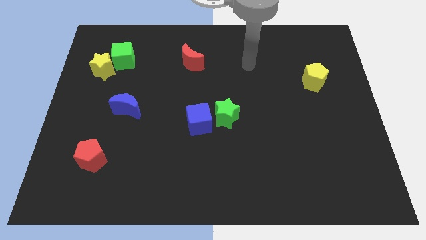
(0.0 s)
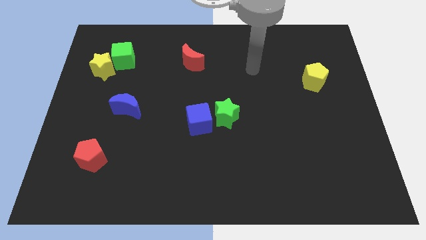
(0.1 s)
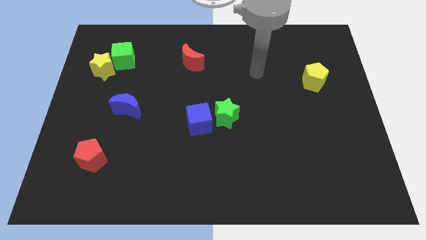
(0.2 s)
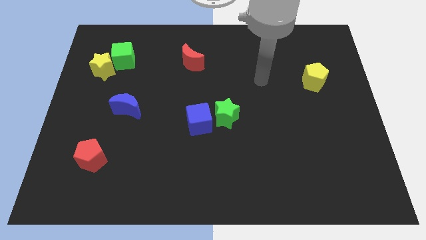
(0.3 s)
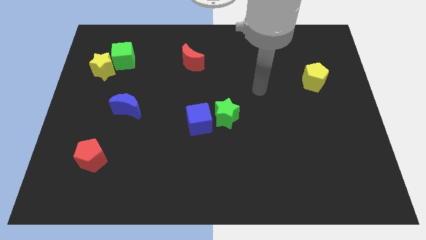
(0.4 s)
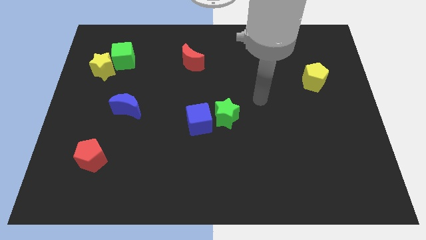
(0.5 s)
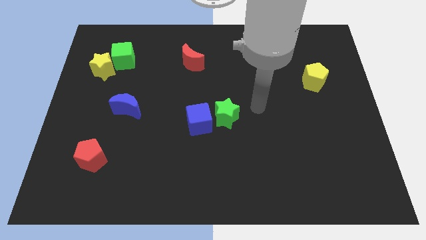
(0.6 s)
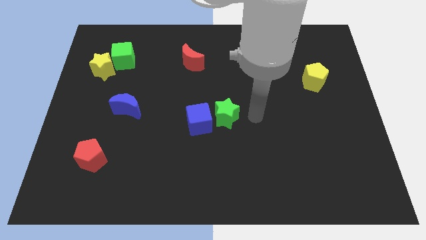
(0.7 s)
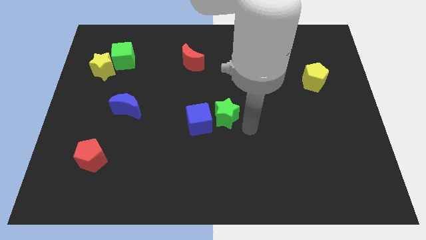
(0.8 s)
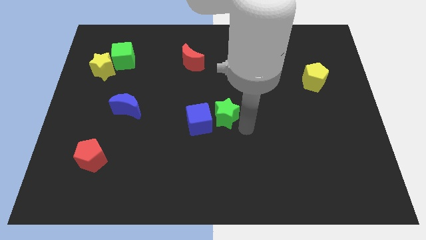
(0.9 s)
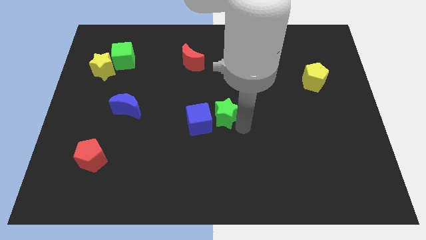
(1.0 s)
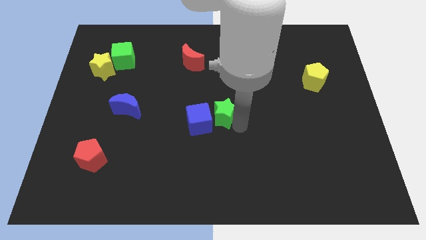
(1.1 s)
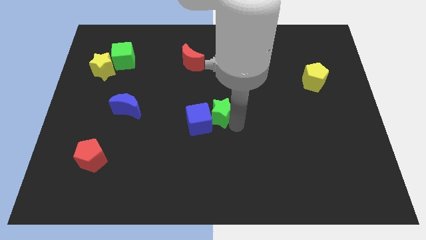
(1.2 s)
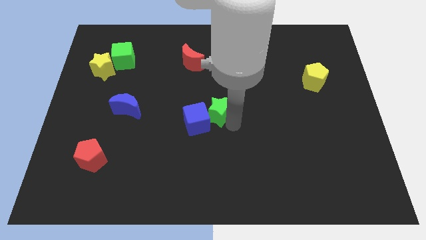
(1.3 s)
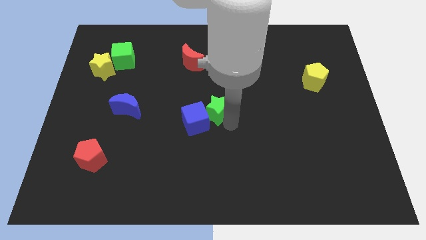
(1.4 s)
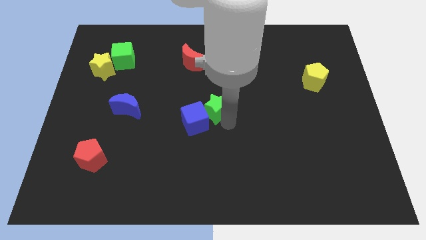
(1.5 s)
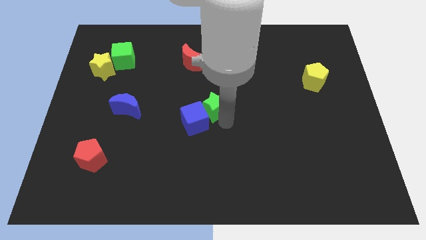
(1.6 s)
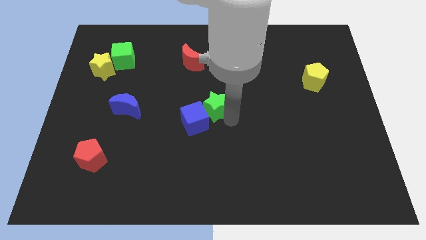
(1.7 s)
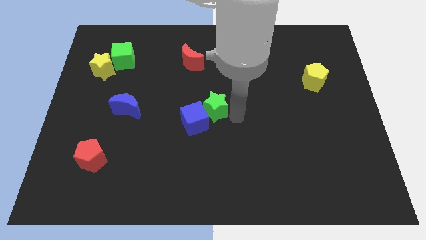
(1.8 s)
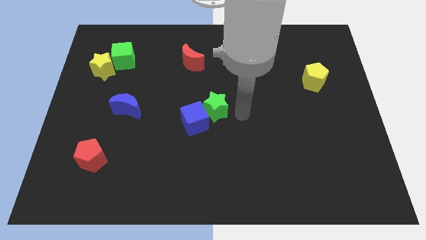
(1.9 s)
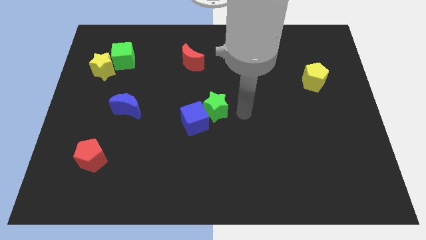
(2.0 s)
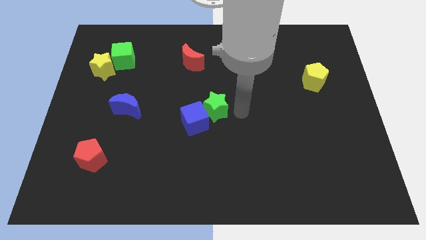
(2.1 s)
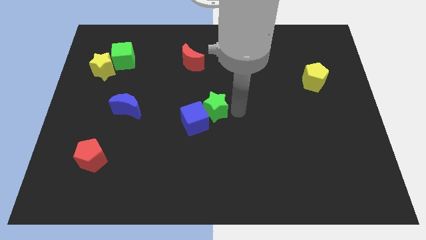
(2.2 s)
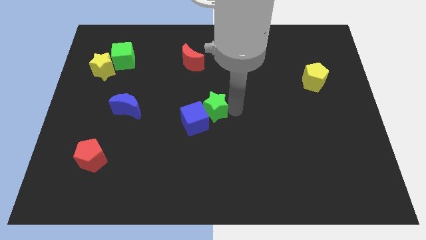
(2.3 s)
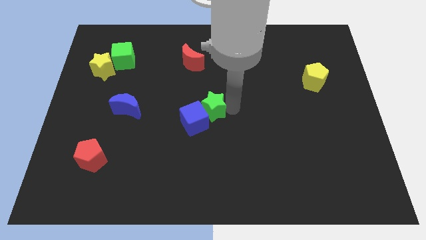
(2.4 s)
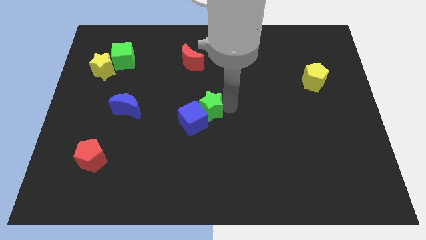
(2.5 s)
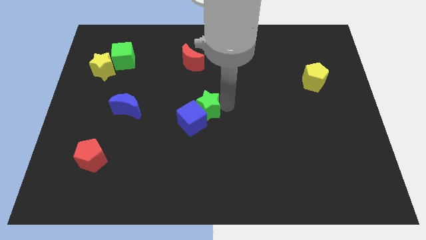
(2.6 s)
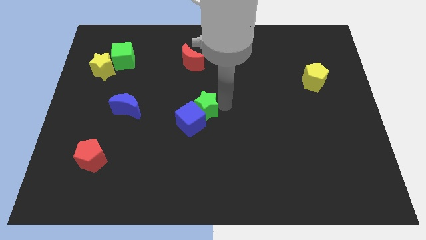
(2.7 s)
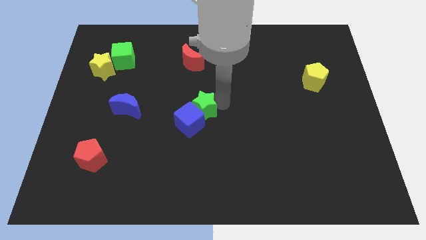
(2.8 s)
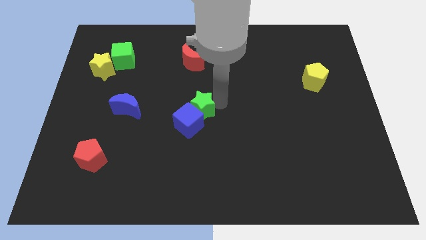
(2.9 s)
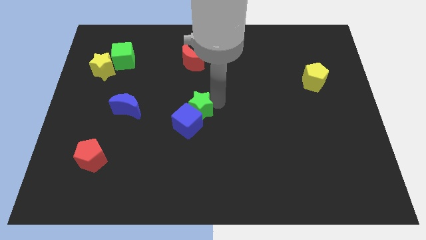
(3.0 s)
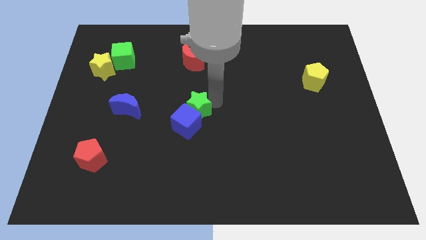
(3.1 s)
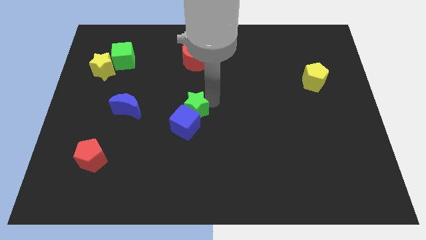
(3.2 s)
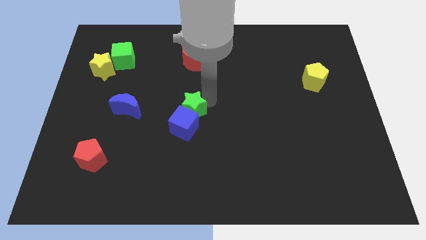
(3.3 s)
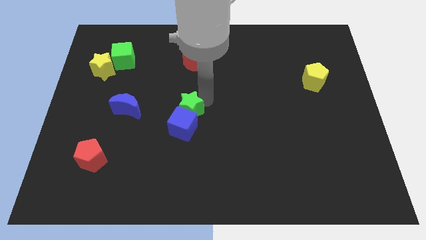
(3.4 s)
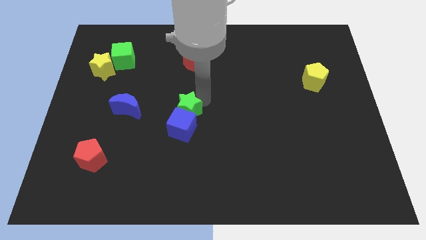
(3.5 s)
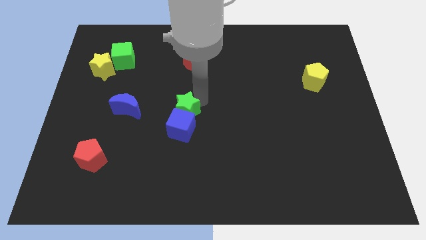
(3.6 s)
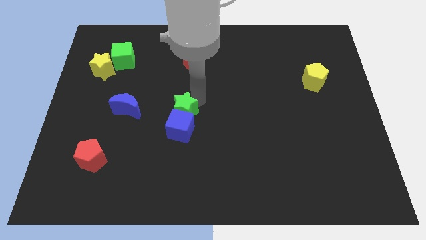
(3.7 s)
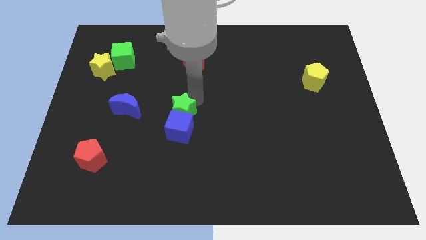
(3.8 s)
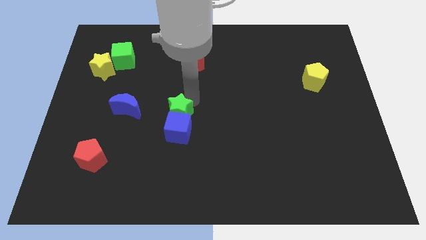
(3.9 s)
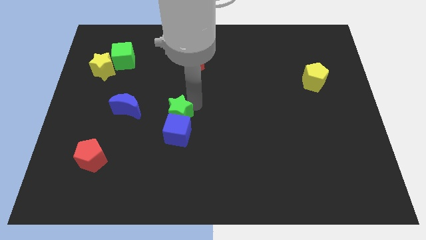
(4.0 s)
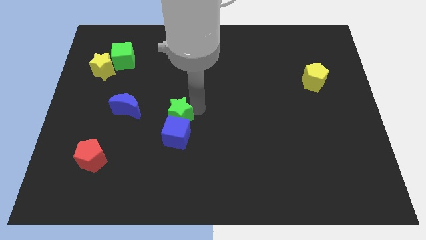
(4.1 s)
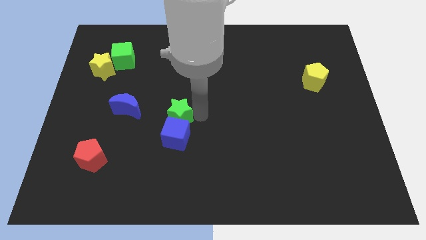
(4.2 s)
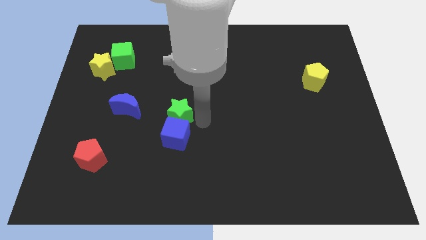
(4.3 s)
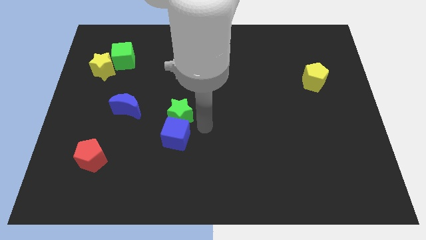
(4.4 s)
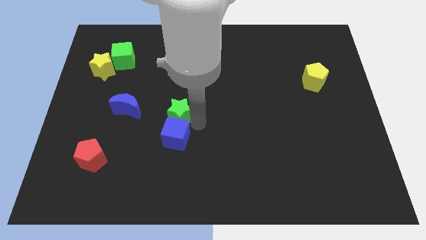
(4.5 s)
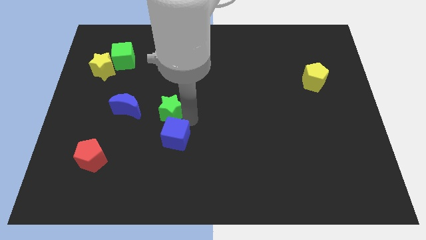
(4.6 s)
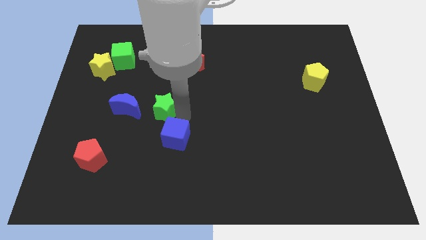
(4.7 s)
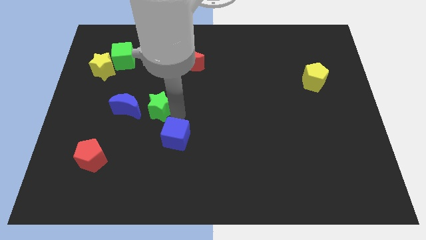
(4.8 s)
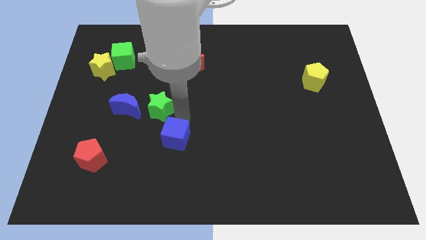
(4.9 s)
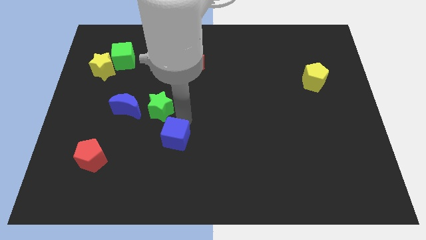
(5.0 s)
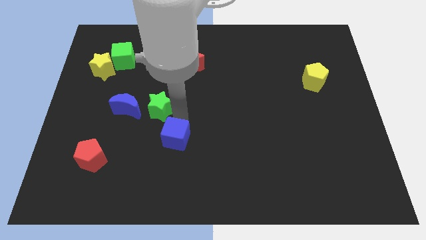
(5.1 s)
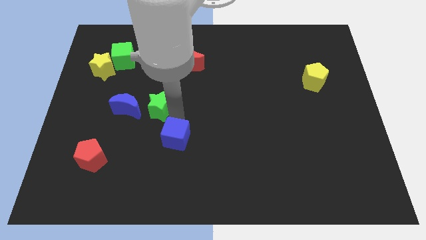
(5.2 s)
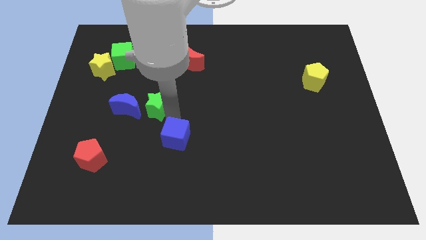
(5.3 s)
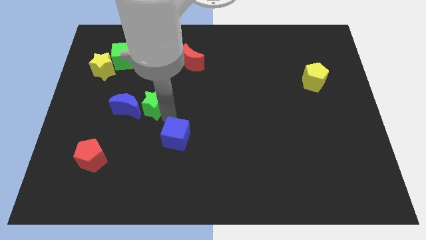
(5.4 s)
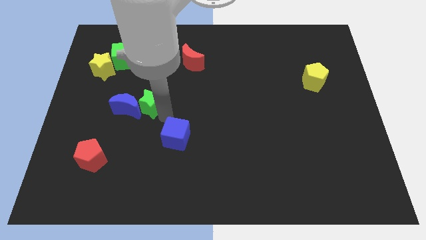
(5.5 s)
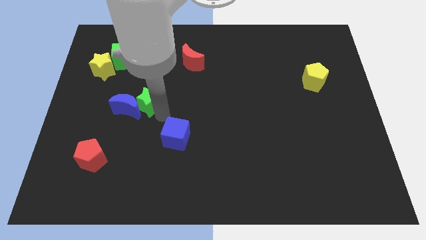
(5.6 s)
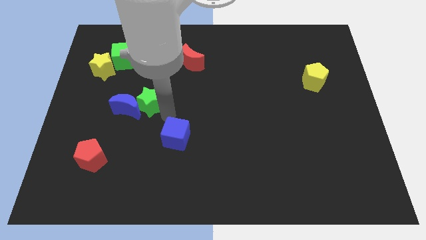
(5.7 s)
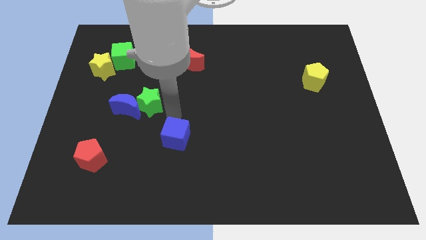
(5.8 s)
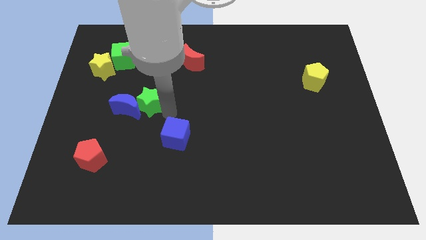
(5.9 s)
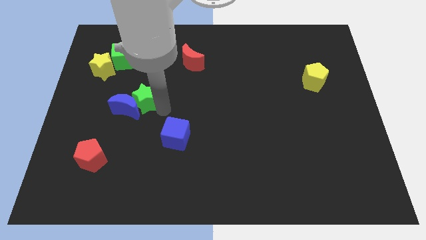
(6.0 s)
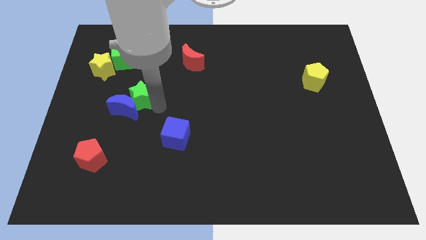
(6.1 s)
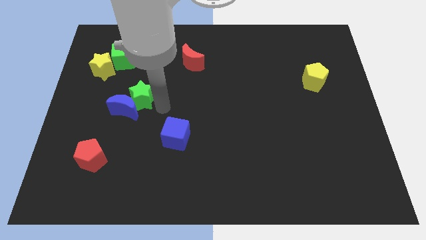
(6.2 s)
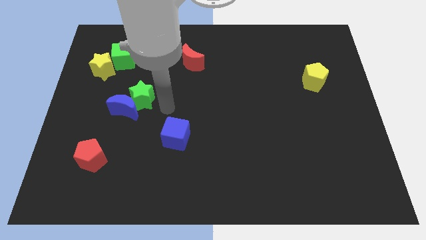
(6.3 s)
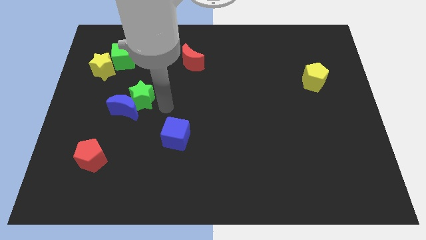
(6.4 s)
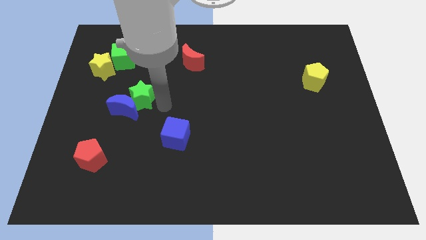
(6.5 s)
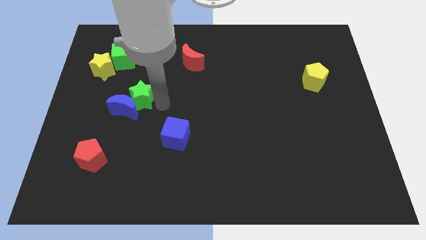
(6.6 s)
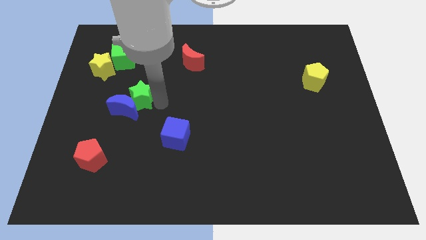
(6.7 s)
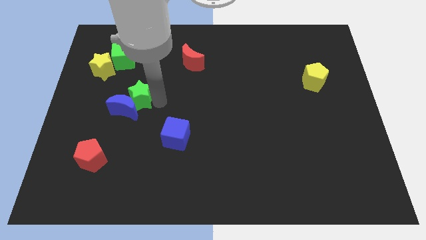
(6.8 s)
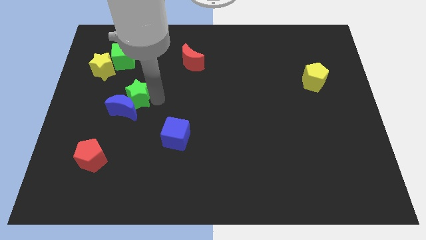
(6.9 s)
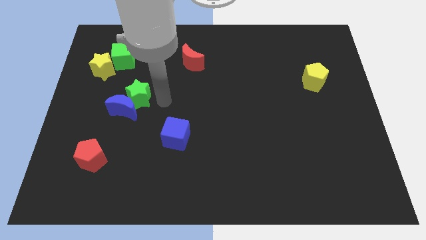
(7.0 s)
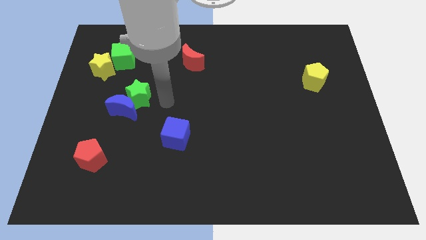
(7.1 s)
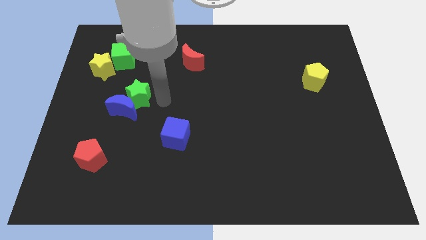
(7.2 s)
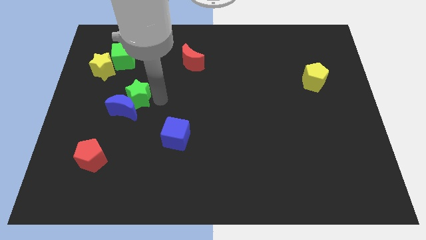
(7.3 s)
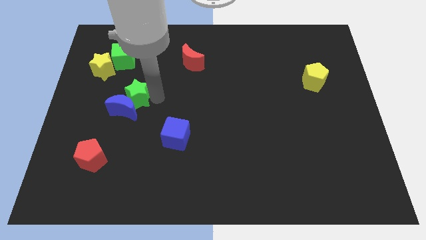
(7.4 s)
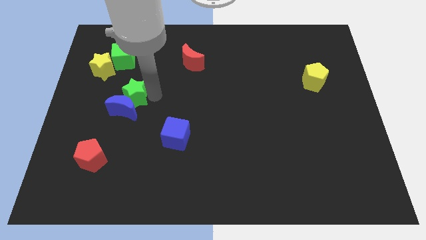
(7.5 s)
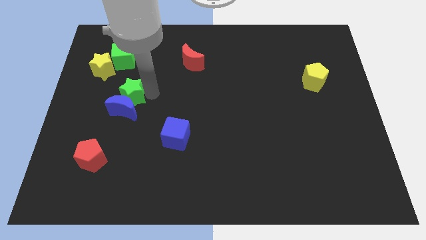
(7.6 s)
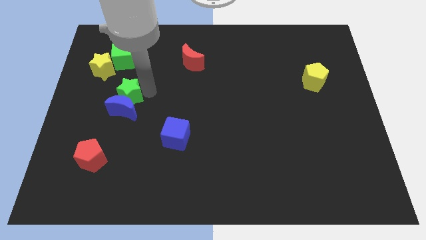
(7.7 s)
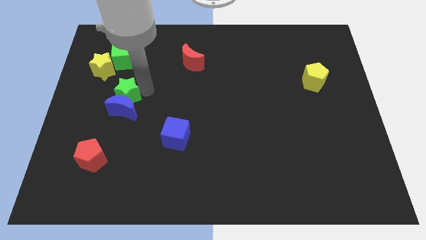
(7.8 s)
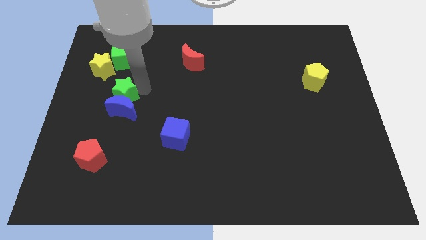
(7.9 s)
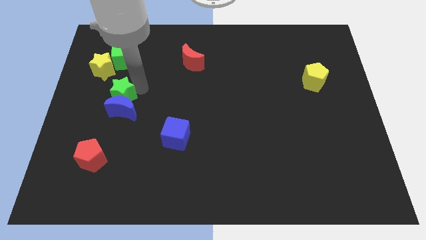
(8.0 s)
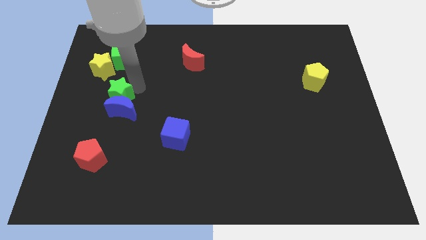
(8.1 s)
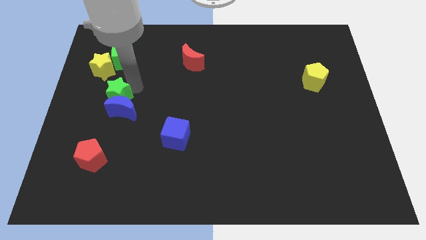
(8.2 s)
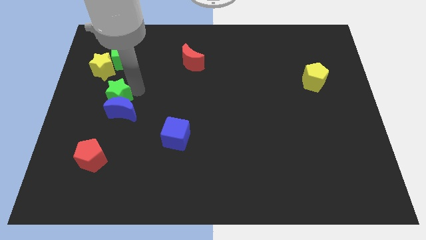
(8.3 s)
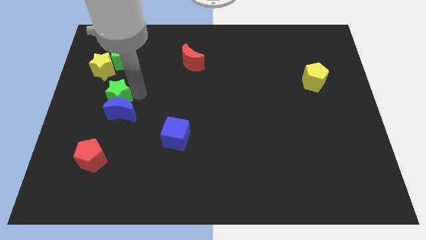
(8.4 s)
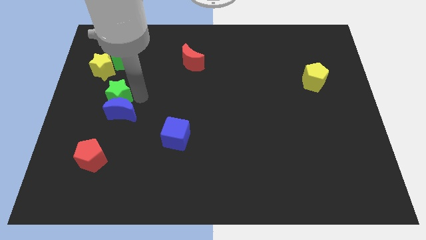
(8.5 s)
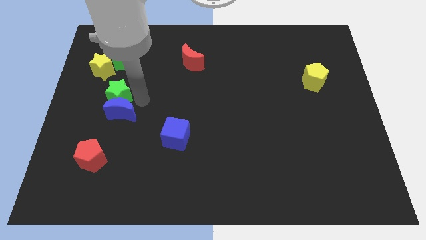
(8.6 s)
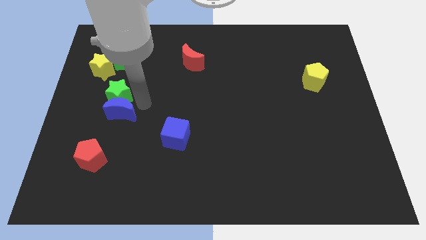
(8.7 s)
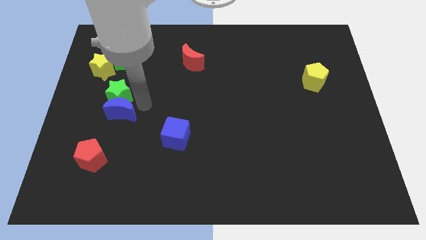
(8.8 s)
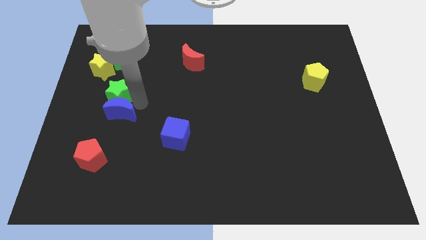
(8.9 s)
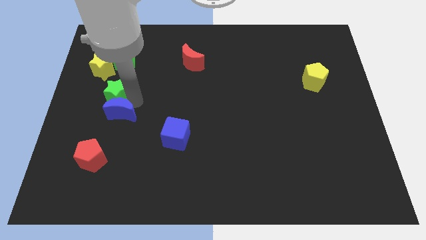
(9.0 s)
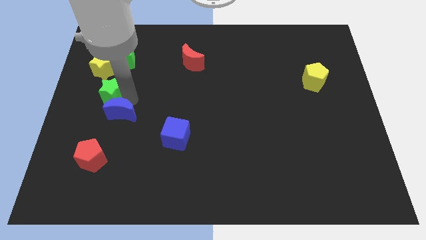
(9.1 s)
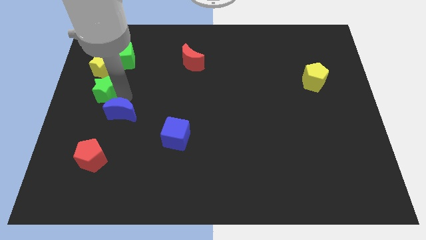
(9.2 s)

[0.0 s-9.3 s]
move the green star to the left side
